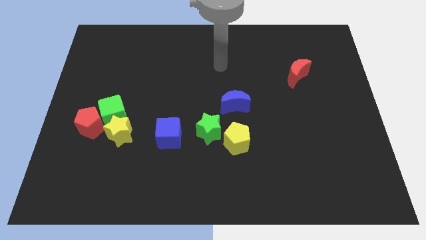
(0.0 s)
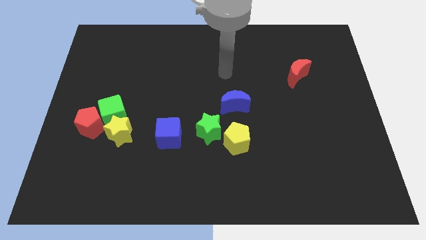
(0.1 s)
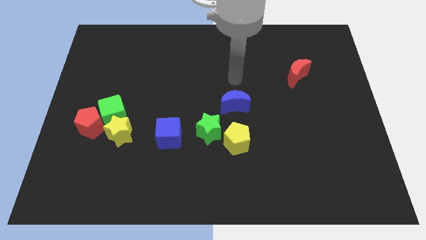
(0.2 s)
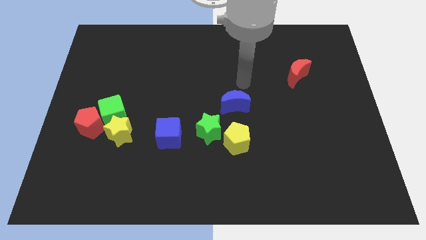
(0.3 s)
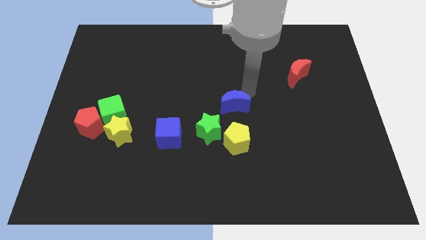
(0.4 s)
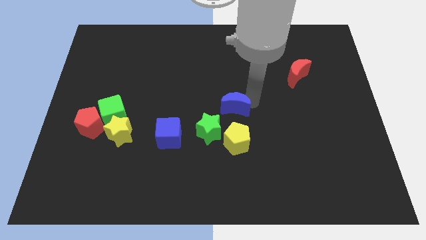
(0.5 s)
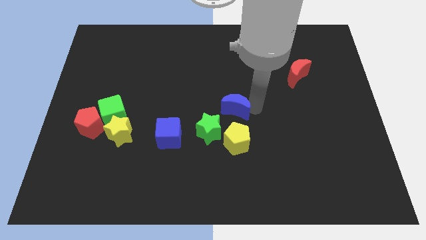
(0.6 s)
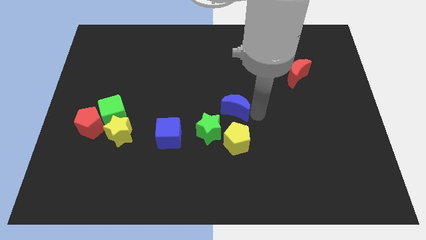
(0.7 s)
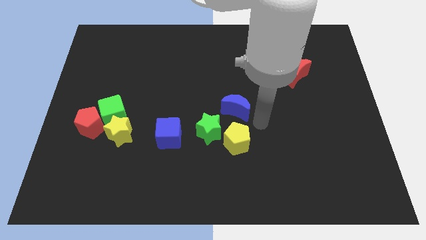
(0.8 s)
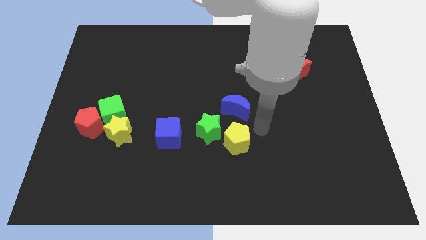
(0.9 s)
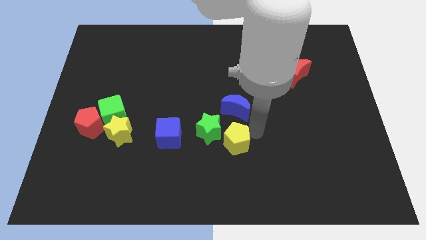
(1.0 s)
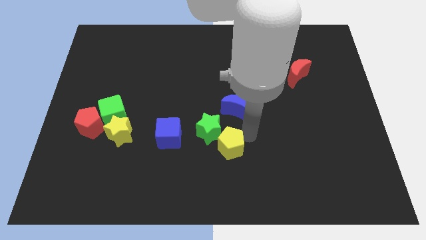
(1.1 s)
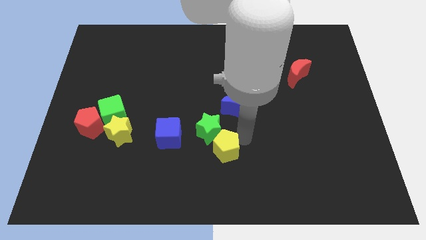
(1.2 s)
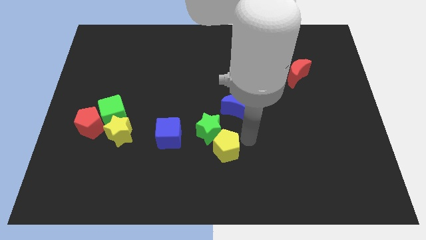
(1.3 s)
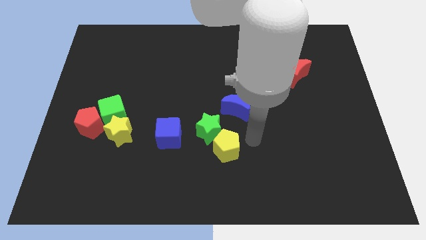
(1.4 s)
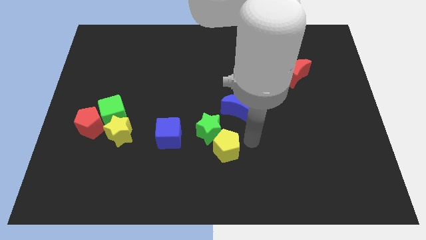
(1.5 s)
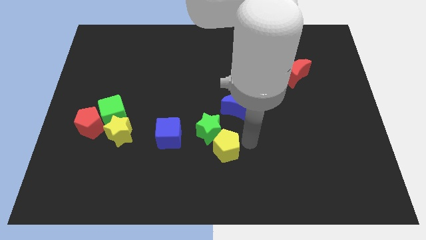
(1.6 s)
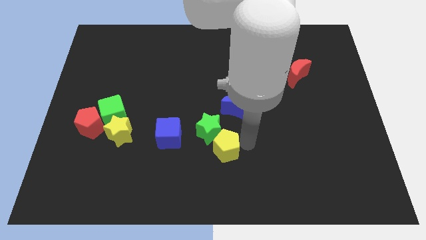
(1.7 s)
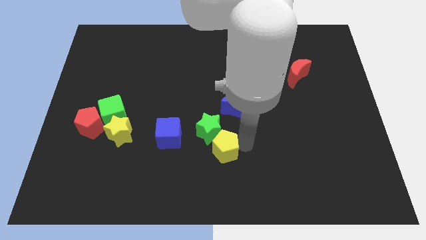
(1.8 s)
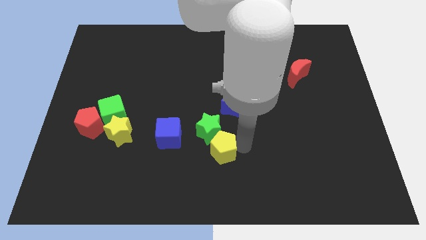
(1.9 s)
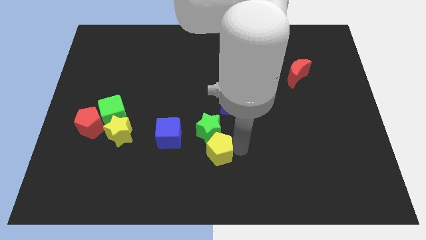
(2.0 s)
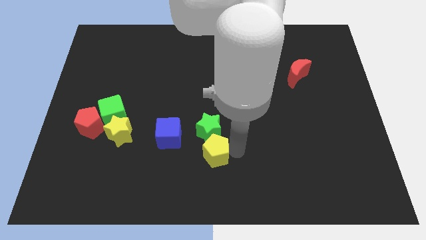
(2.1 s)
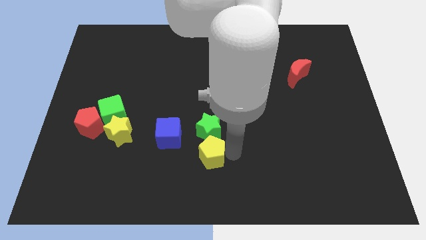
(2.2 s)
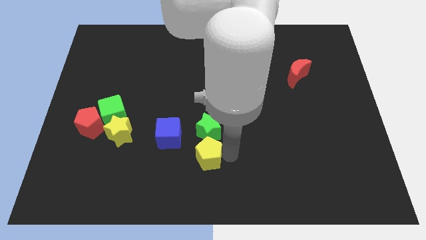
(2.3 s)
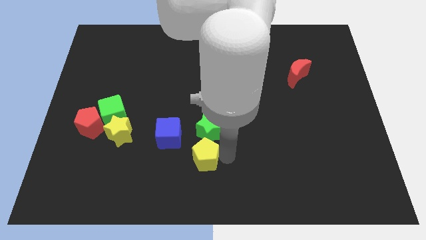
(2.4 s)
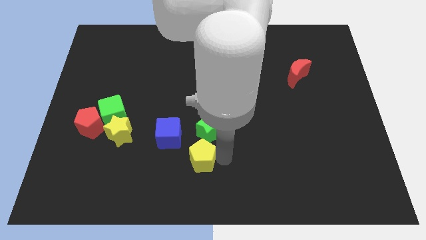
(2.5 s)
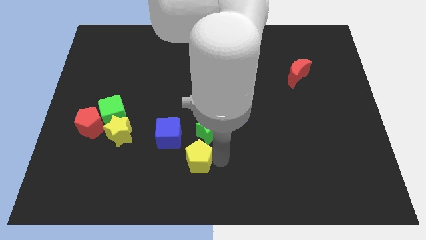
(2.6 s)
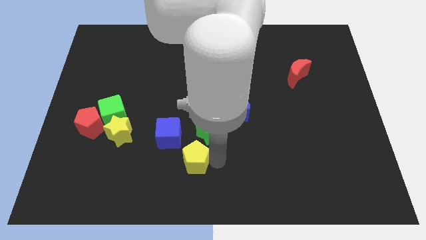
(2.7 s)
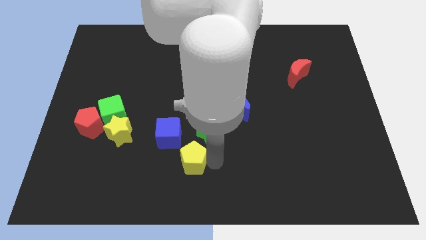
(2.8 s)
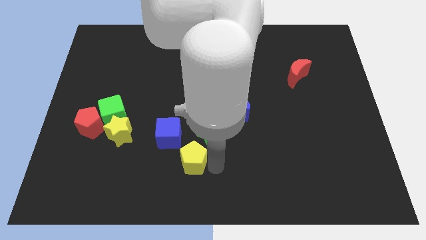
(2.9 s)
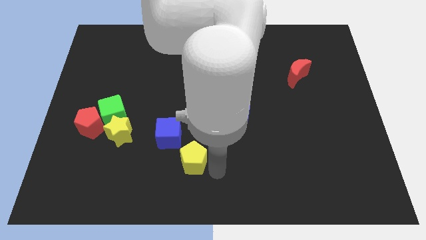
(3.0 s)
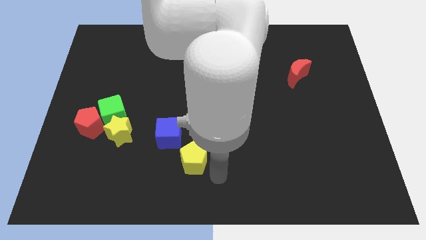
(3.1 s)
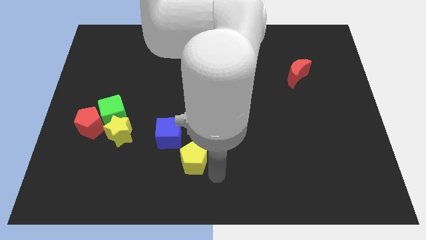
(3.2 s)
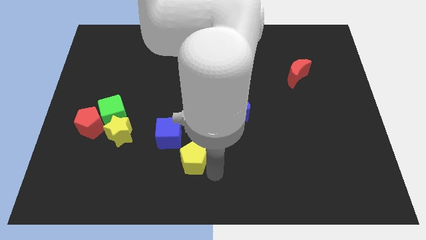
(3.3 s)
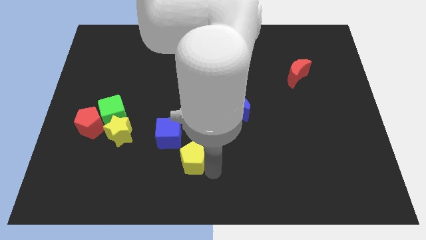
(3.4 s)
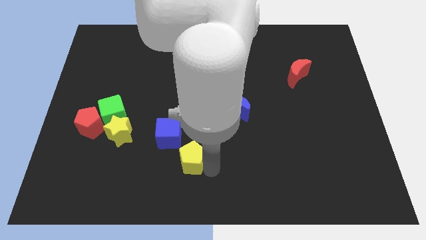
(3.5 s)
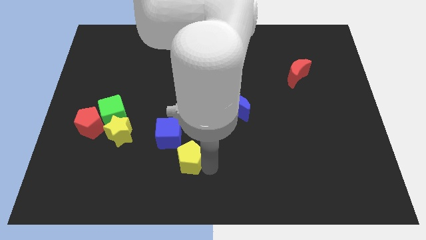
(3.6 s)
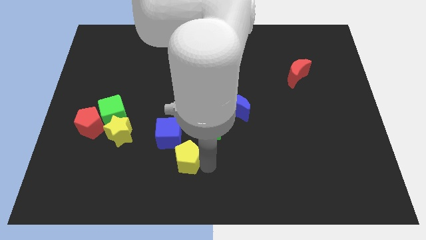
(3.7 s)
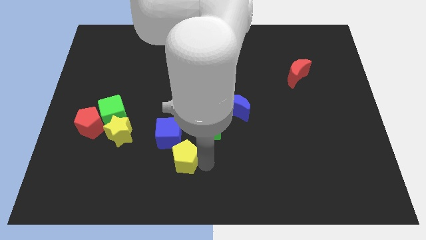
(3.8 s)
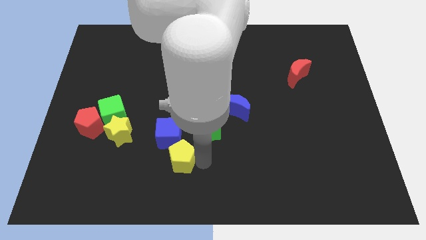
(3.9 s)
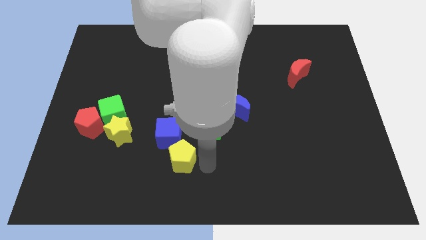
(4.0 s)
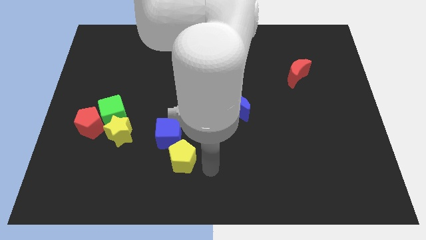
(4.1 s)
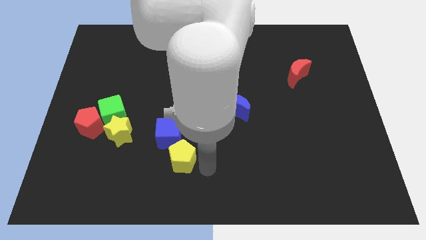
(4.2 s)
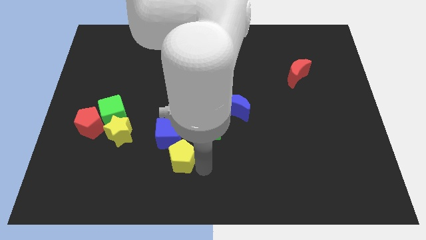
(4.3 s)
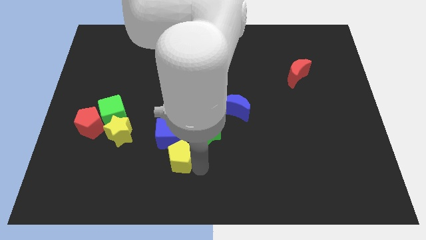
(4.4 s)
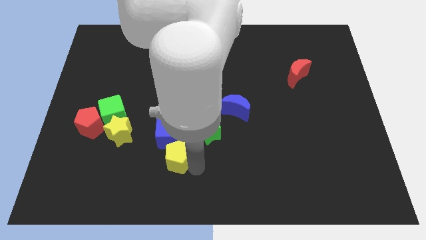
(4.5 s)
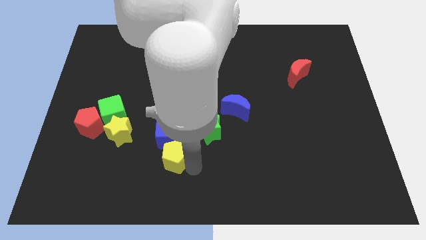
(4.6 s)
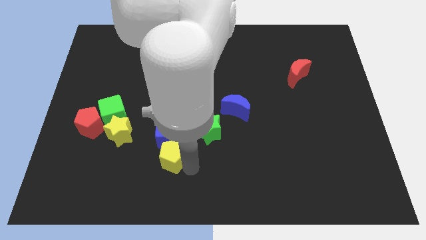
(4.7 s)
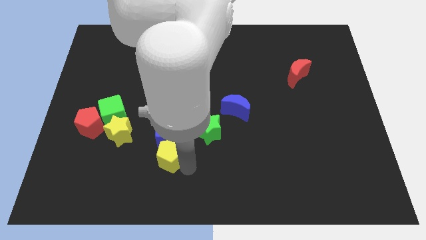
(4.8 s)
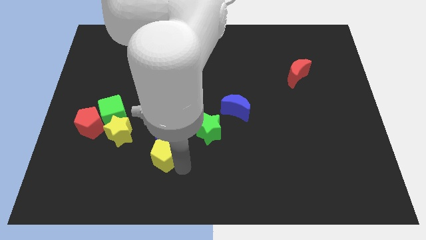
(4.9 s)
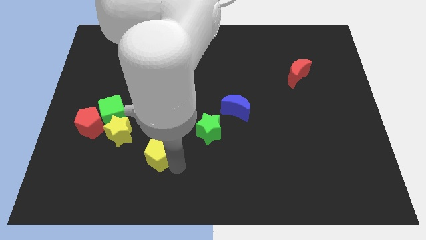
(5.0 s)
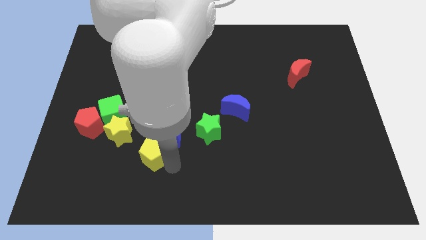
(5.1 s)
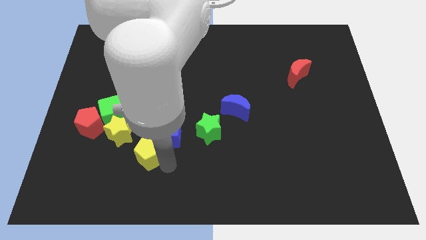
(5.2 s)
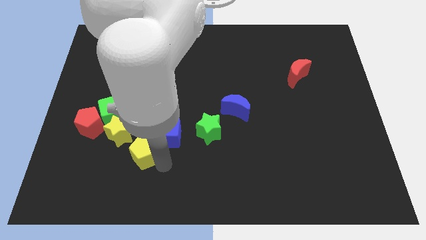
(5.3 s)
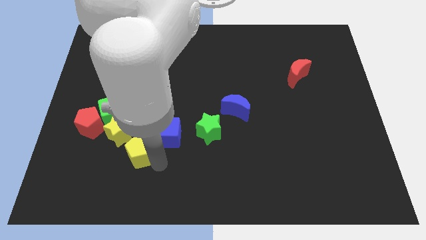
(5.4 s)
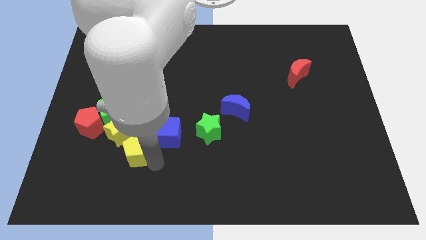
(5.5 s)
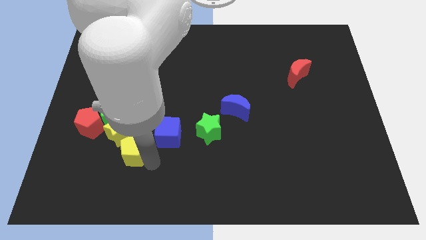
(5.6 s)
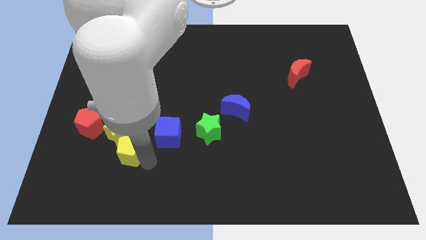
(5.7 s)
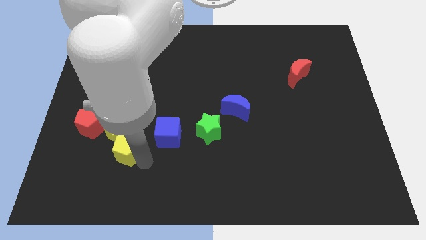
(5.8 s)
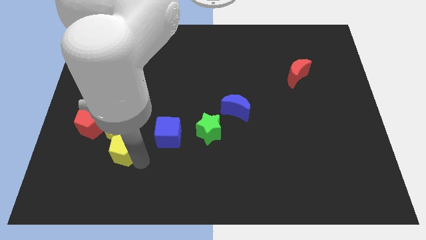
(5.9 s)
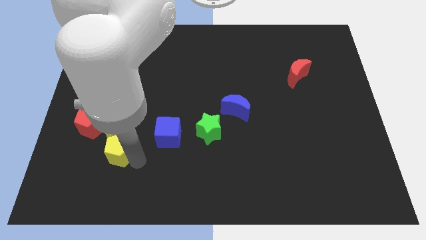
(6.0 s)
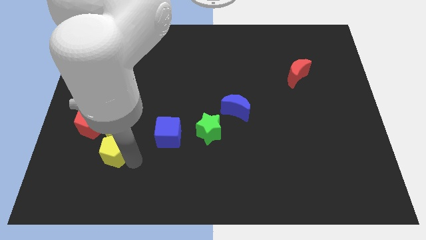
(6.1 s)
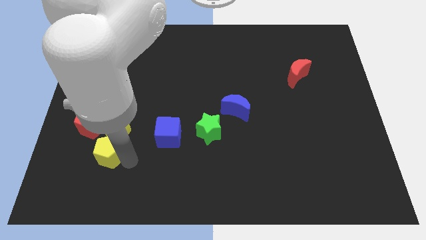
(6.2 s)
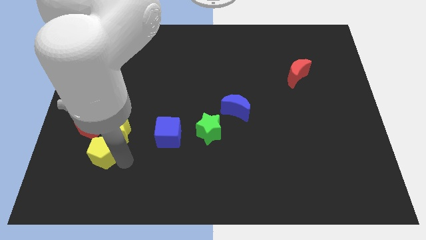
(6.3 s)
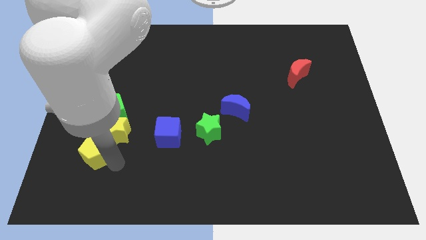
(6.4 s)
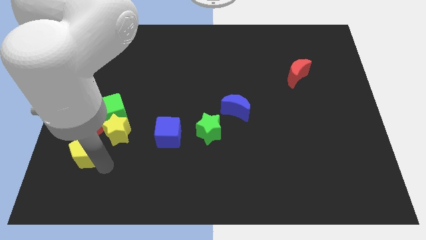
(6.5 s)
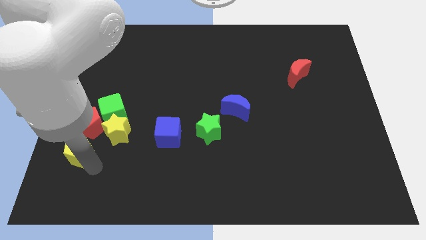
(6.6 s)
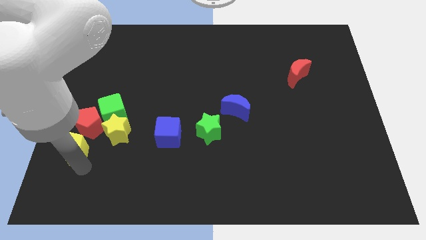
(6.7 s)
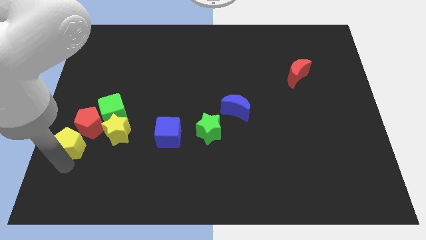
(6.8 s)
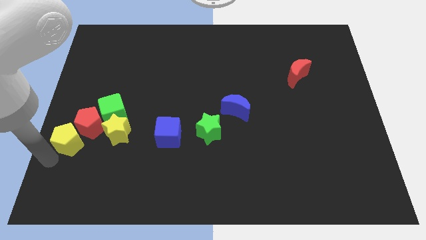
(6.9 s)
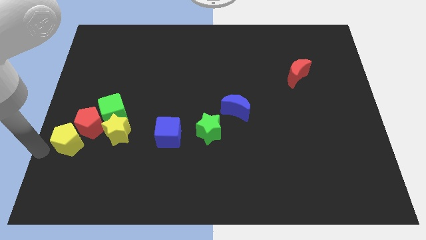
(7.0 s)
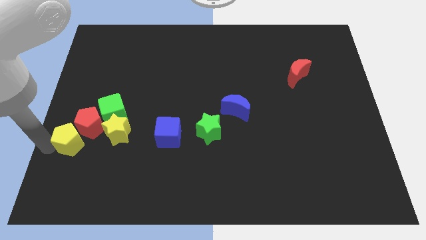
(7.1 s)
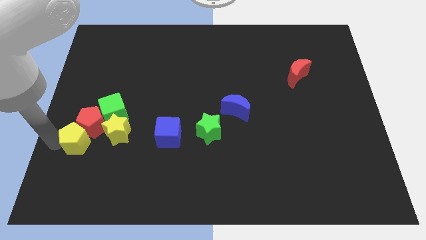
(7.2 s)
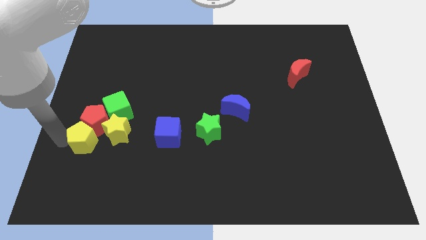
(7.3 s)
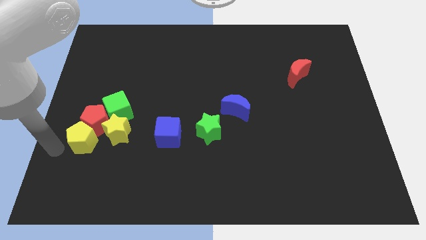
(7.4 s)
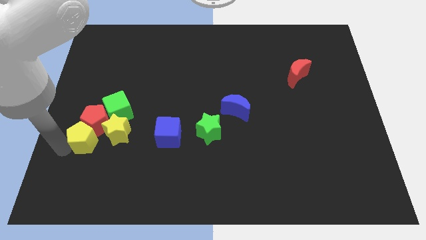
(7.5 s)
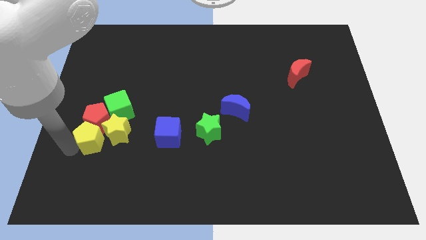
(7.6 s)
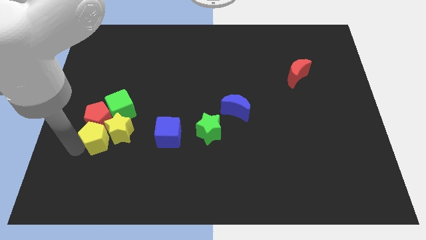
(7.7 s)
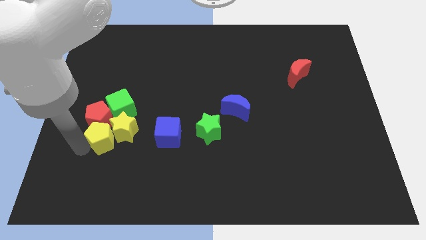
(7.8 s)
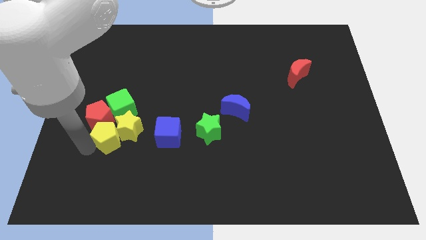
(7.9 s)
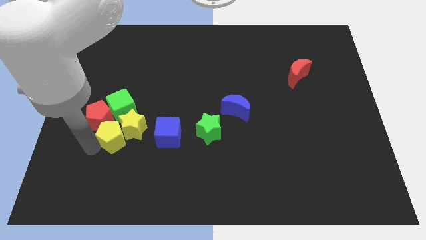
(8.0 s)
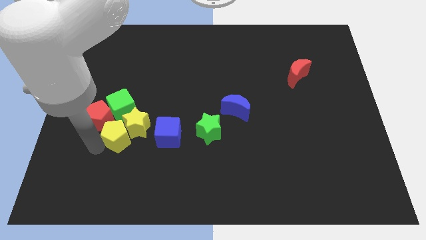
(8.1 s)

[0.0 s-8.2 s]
slide the yellow pentagon to the right of the red pentagon
